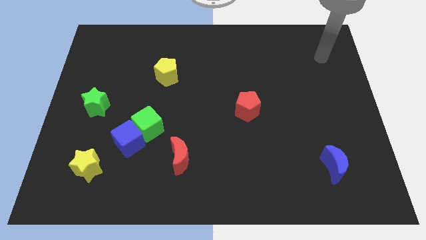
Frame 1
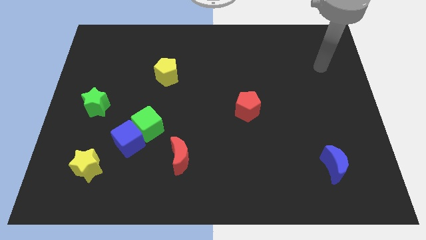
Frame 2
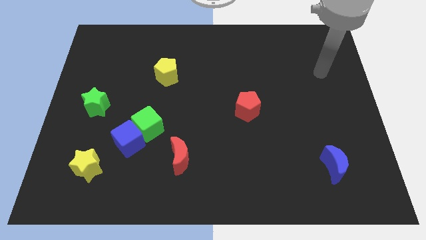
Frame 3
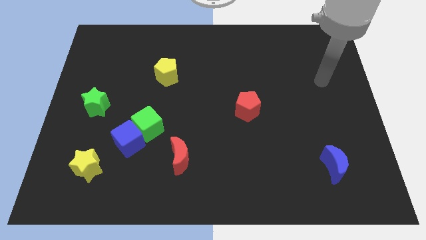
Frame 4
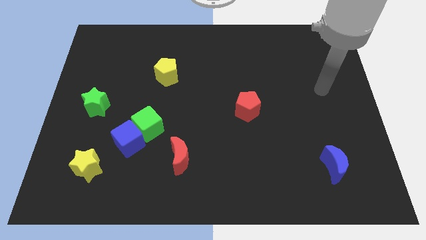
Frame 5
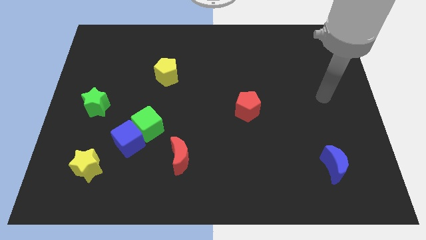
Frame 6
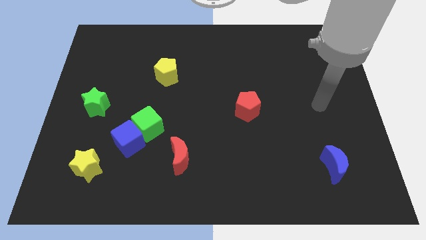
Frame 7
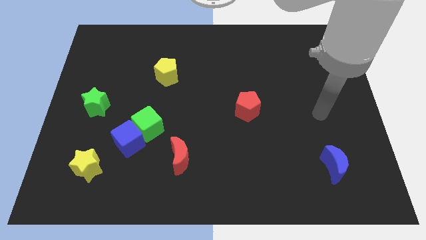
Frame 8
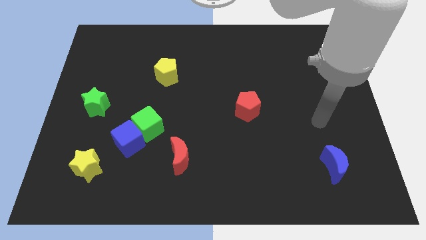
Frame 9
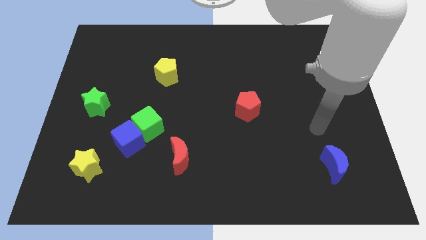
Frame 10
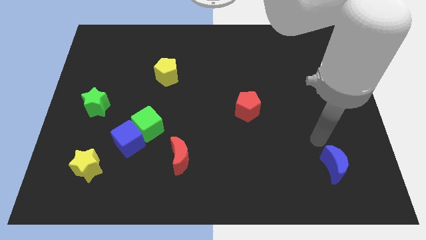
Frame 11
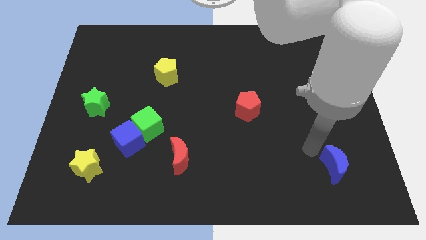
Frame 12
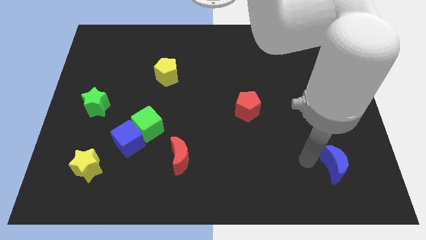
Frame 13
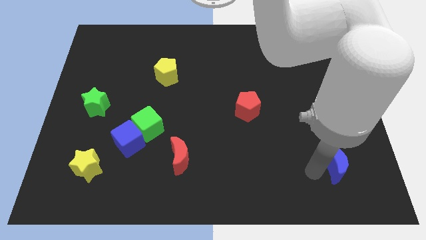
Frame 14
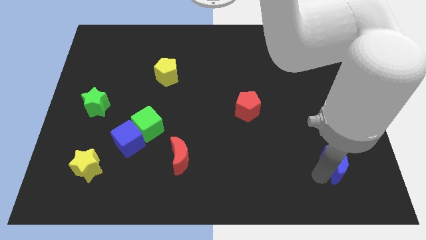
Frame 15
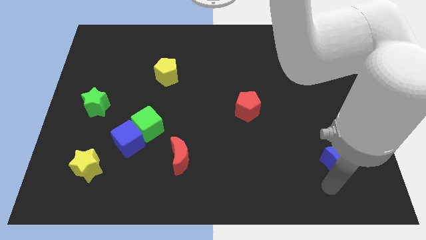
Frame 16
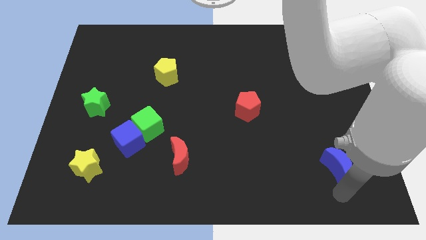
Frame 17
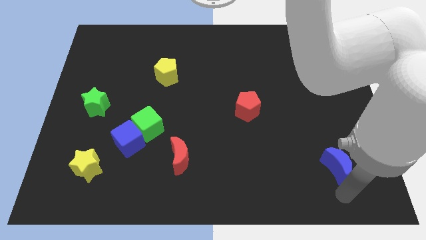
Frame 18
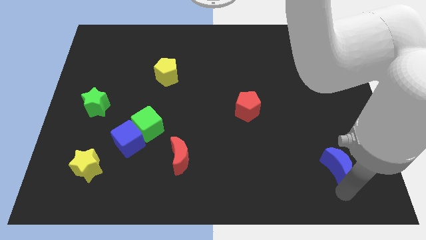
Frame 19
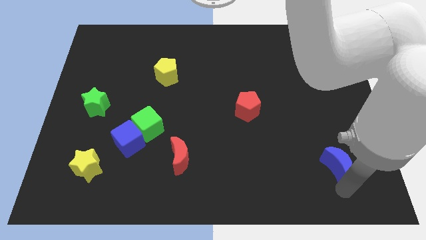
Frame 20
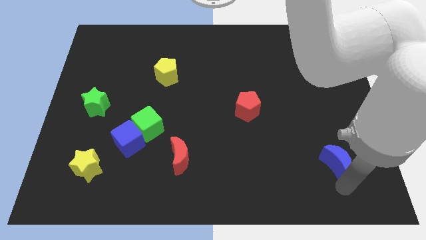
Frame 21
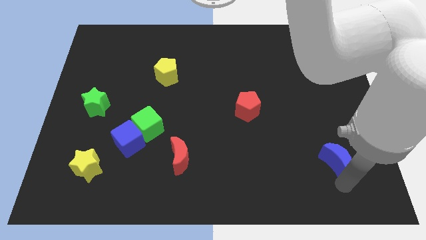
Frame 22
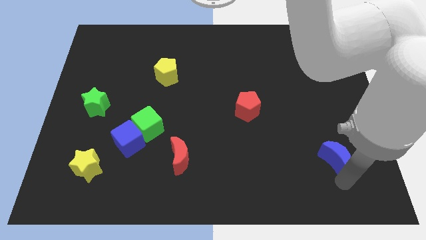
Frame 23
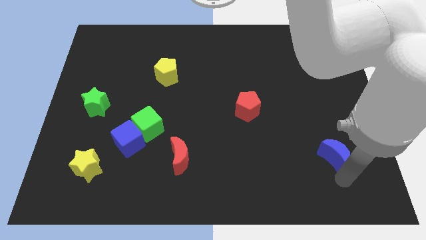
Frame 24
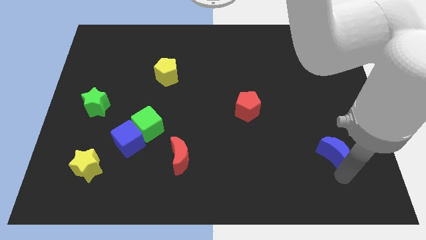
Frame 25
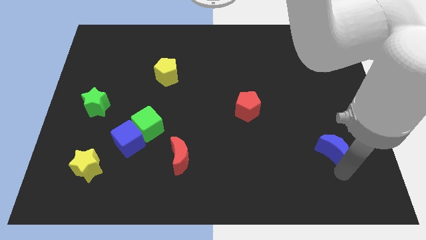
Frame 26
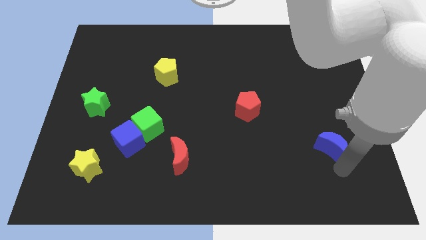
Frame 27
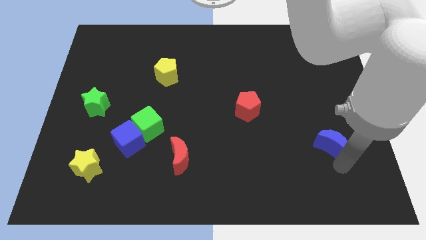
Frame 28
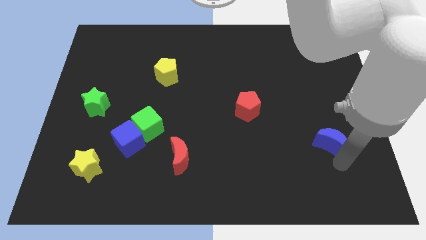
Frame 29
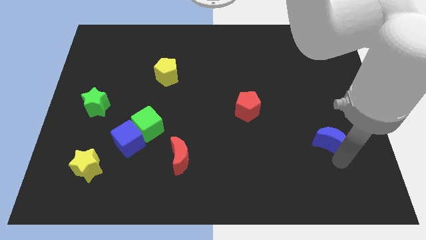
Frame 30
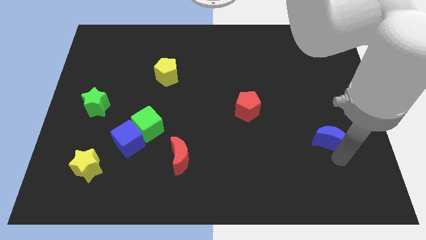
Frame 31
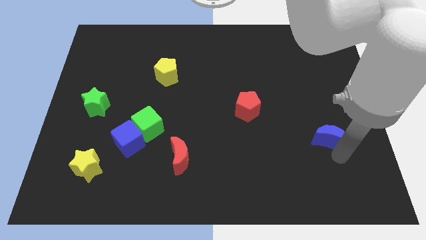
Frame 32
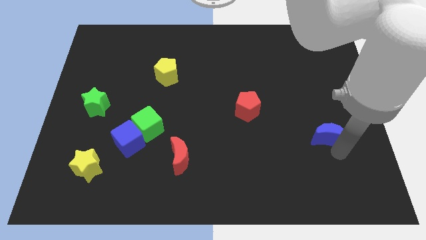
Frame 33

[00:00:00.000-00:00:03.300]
move the blue moon up a little bit

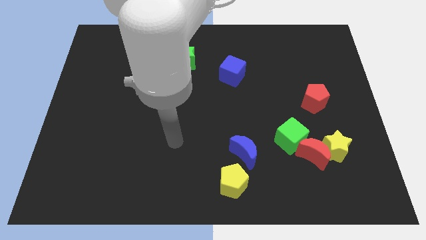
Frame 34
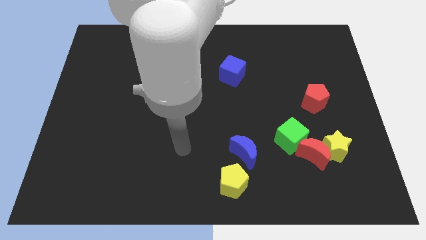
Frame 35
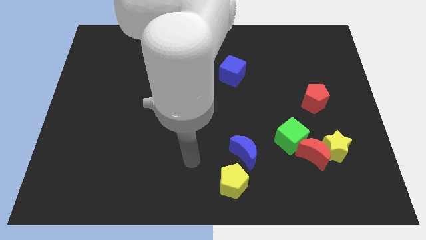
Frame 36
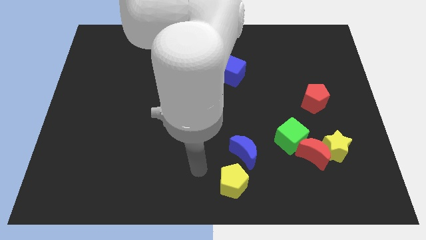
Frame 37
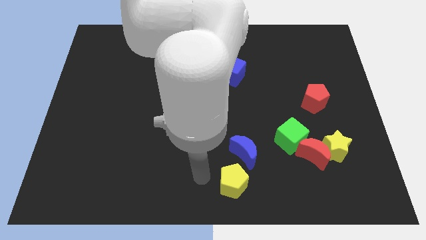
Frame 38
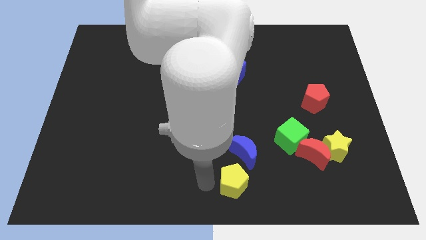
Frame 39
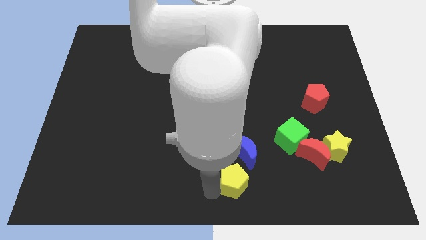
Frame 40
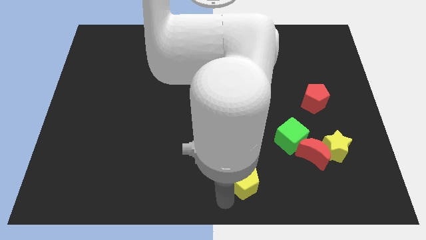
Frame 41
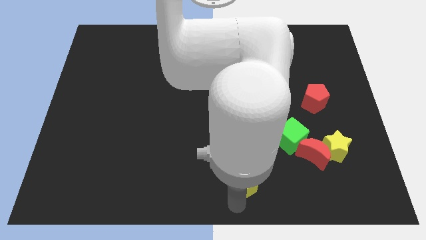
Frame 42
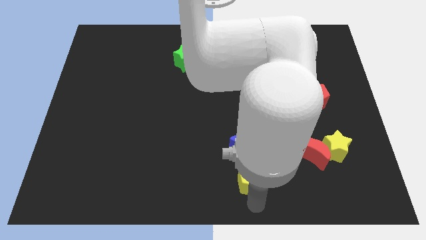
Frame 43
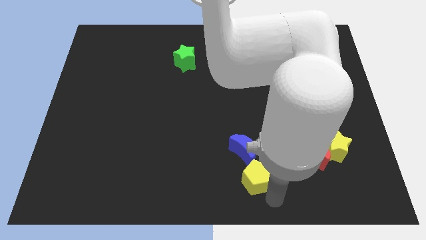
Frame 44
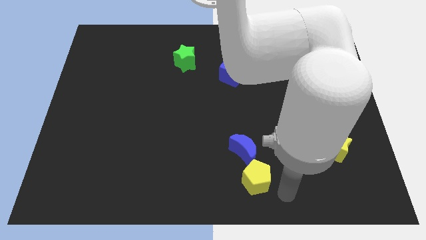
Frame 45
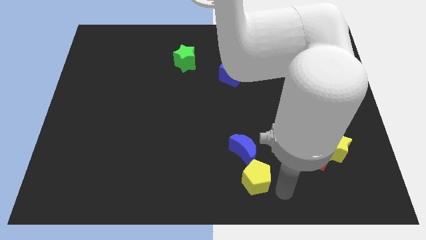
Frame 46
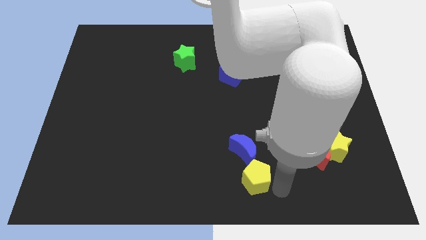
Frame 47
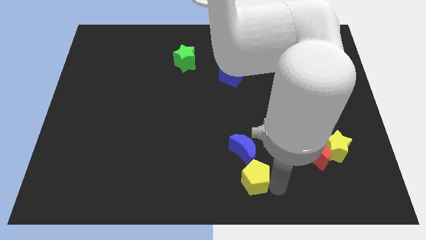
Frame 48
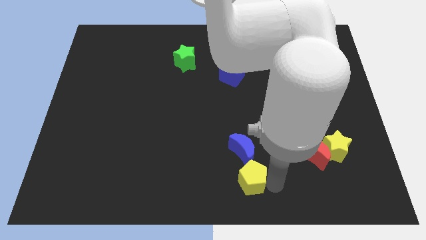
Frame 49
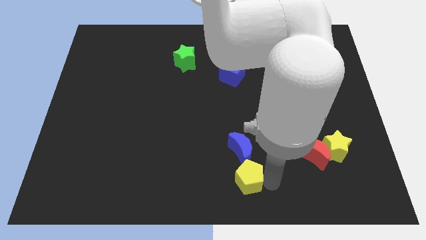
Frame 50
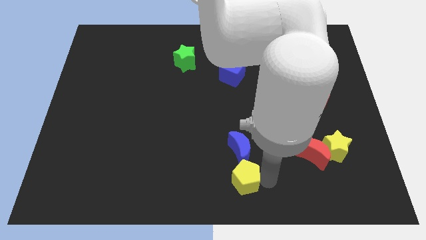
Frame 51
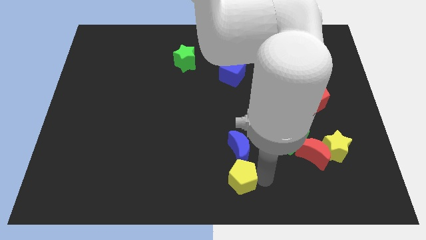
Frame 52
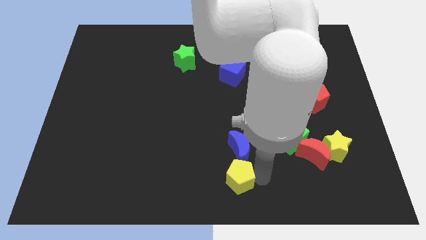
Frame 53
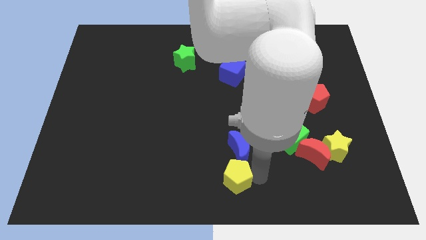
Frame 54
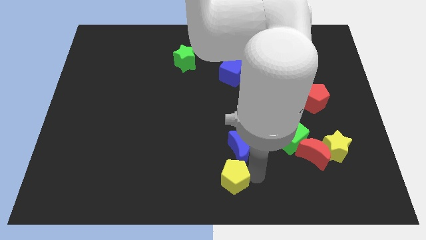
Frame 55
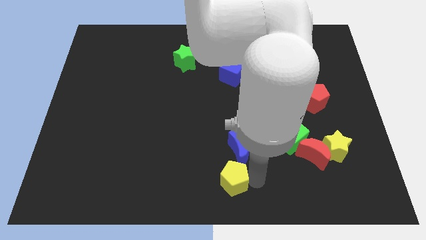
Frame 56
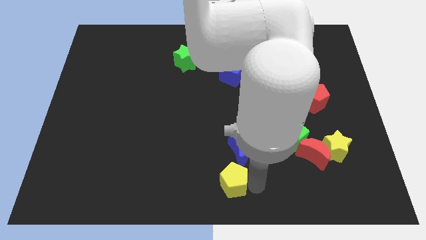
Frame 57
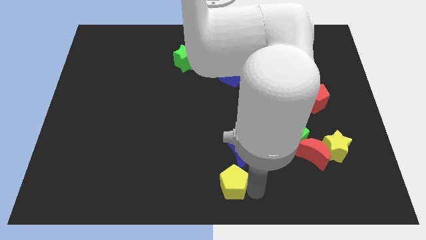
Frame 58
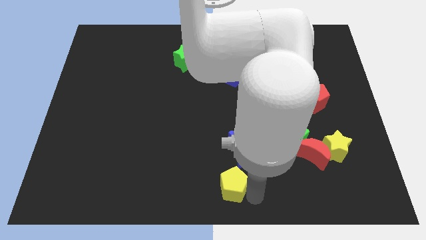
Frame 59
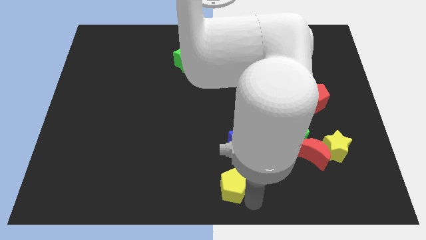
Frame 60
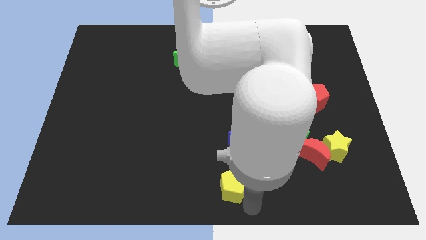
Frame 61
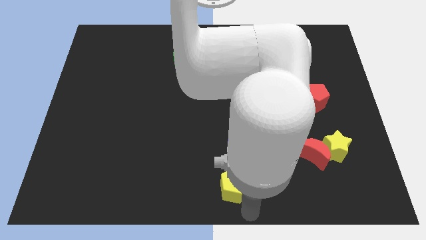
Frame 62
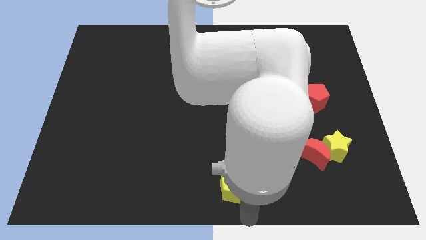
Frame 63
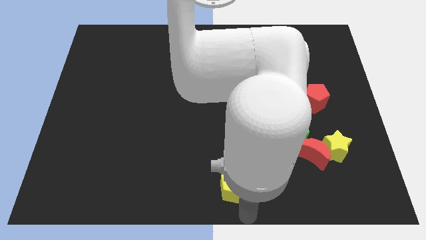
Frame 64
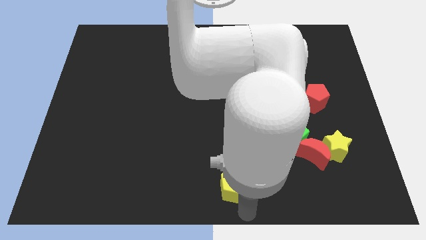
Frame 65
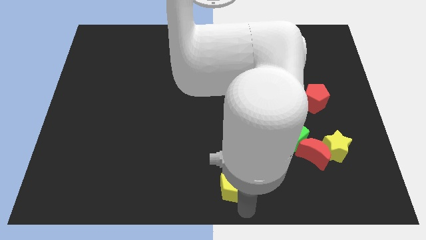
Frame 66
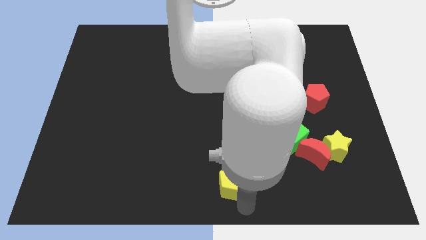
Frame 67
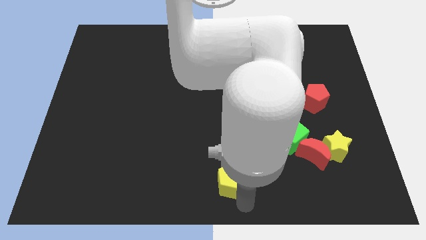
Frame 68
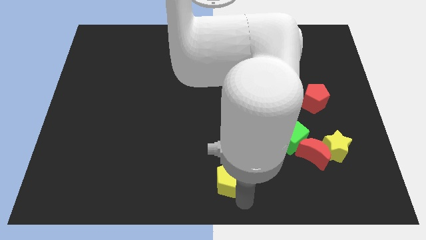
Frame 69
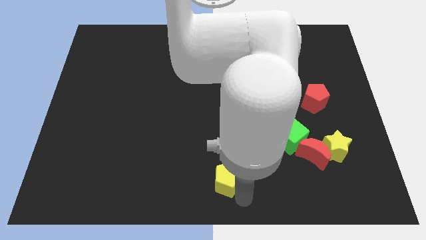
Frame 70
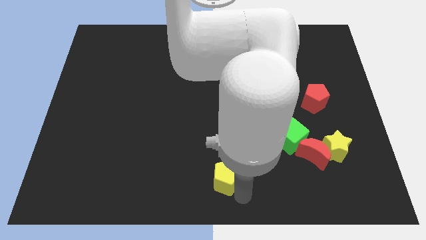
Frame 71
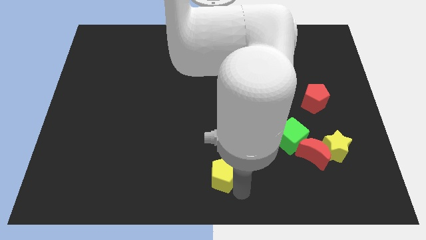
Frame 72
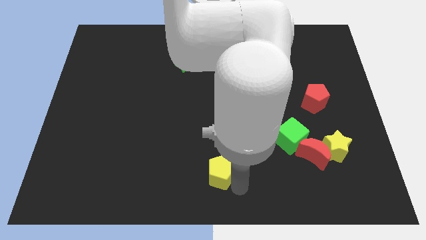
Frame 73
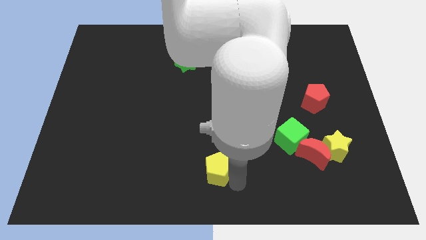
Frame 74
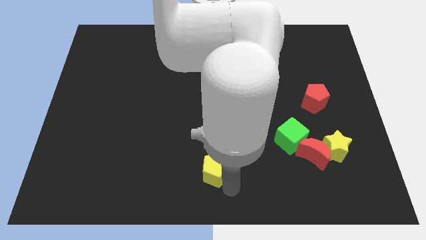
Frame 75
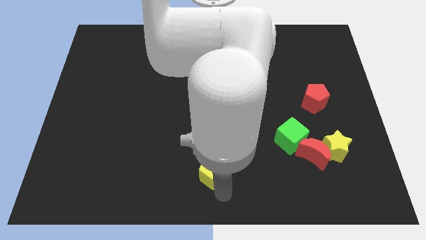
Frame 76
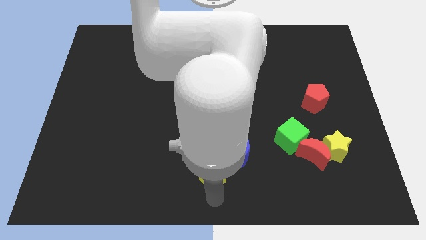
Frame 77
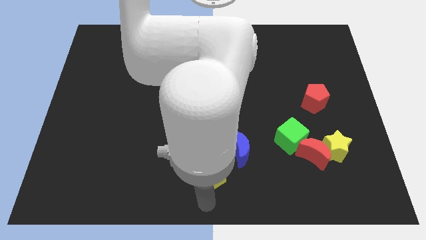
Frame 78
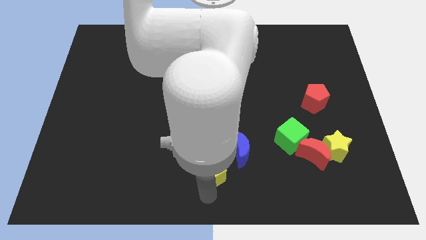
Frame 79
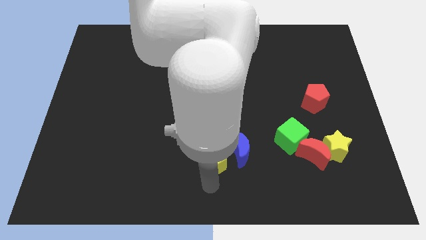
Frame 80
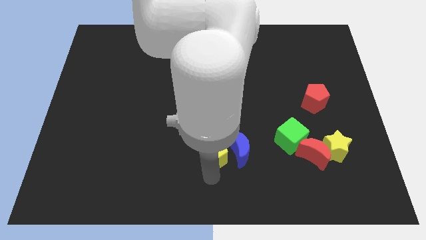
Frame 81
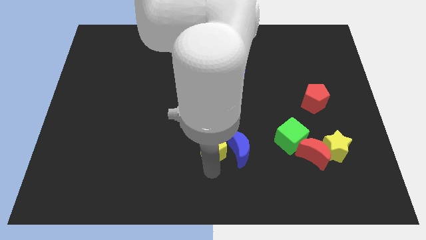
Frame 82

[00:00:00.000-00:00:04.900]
slide the yellow pentagon upwards somewhat

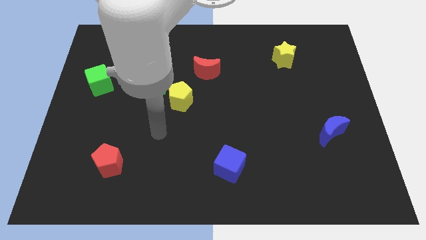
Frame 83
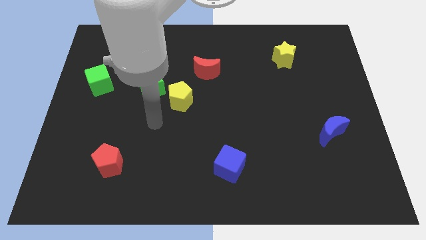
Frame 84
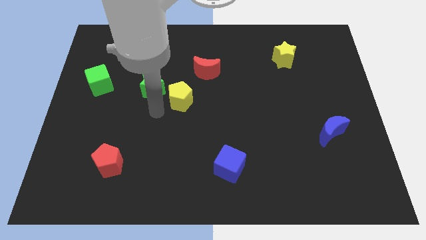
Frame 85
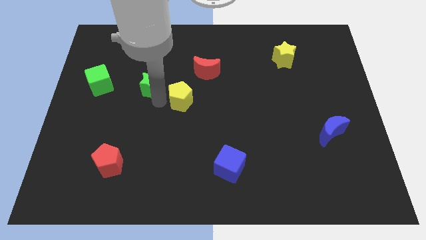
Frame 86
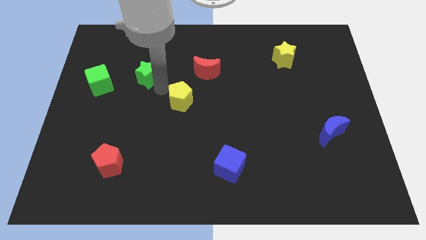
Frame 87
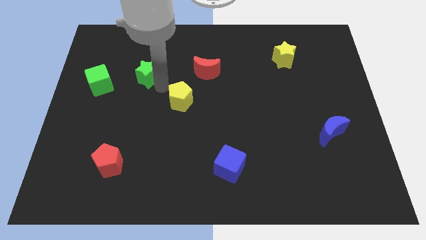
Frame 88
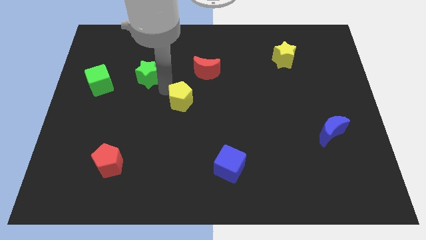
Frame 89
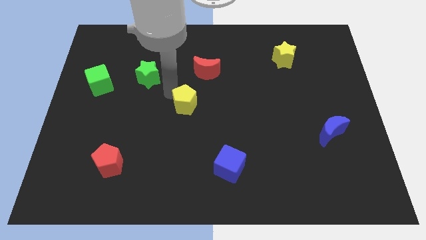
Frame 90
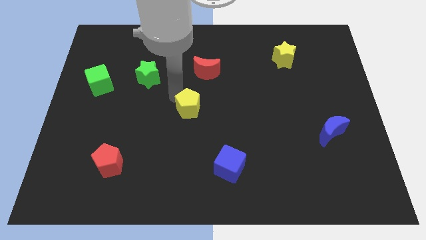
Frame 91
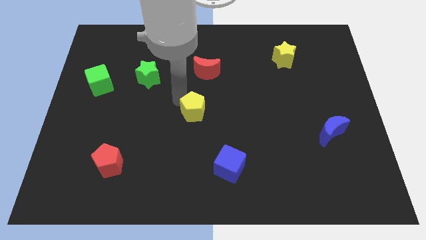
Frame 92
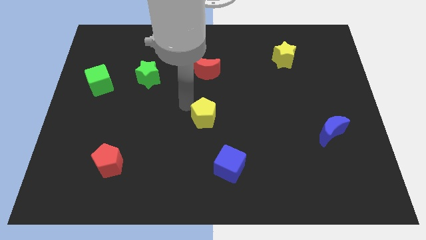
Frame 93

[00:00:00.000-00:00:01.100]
push the yellow pentagon down and then to the right slightly
